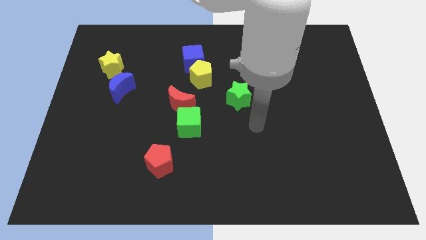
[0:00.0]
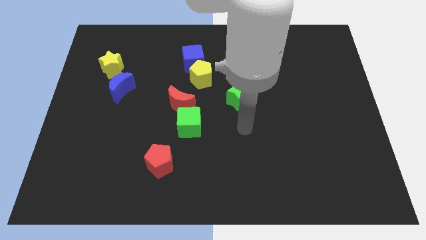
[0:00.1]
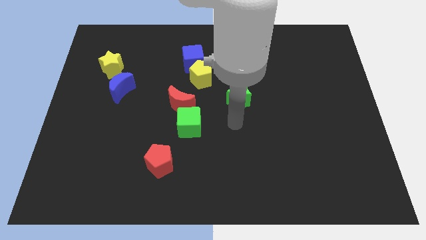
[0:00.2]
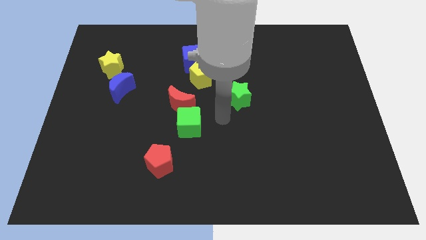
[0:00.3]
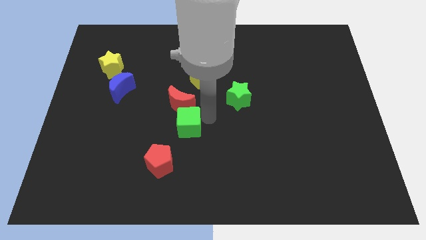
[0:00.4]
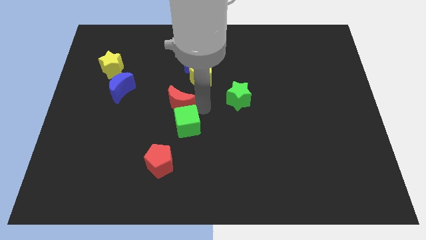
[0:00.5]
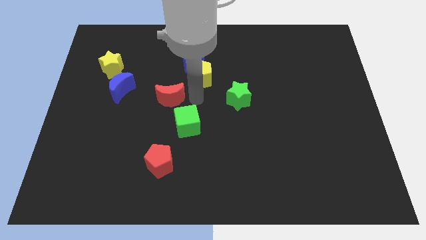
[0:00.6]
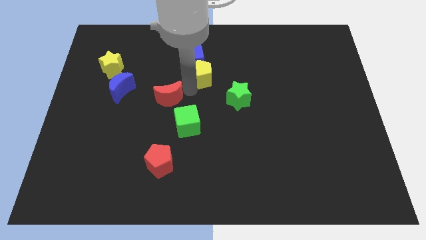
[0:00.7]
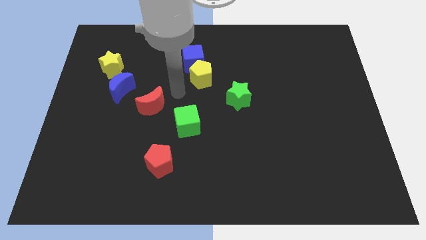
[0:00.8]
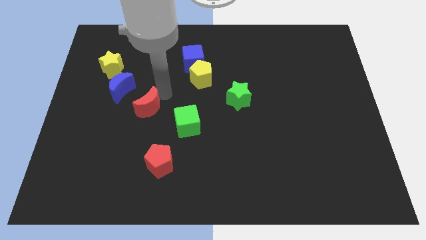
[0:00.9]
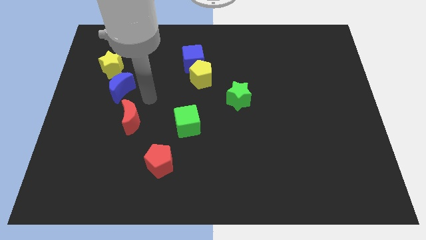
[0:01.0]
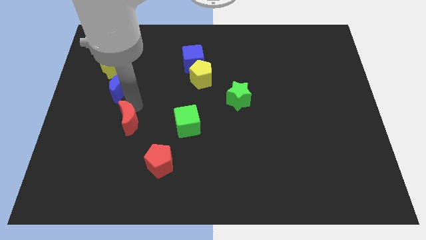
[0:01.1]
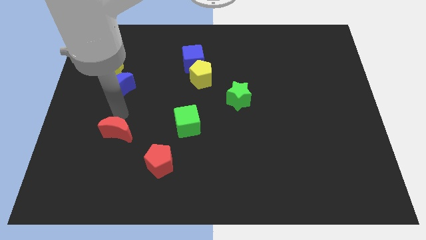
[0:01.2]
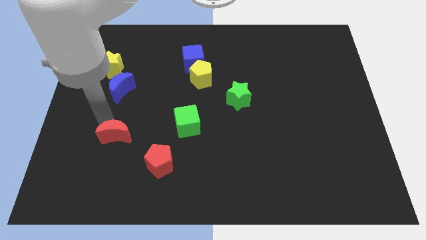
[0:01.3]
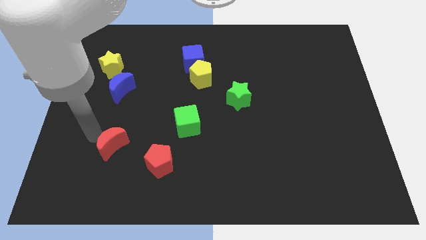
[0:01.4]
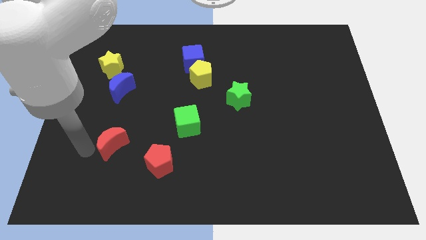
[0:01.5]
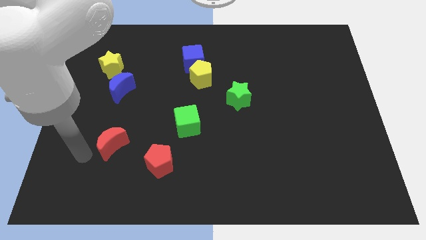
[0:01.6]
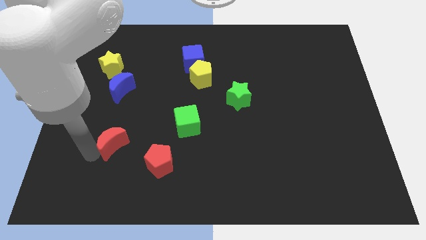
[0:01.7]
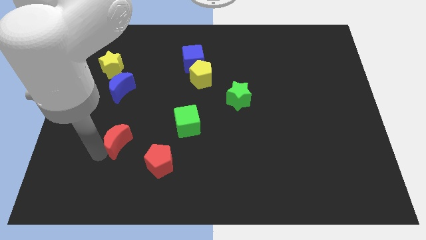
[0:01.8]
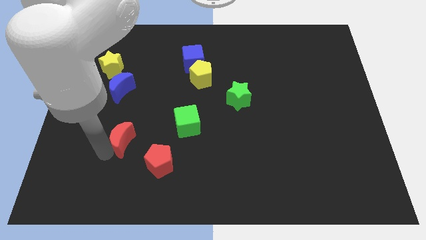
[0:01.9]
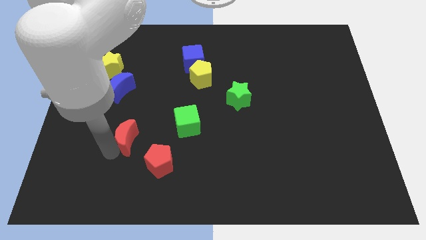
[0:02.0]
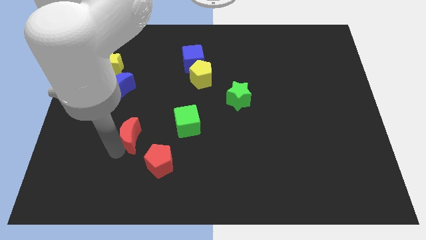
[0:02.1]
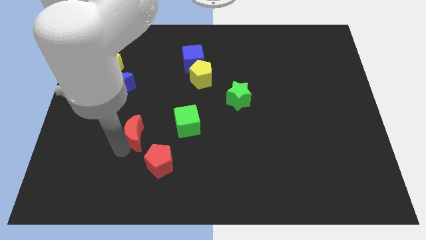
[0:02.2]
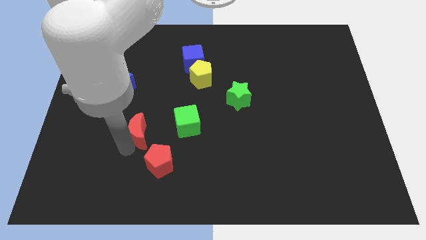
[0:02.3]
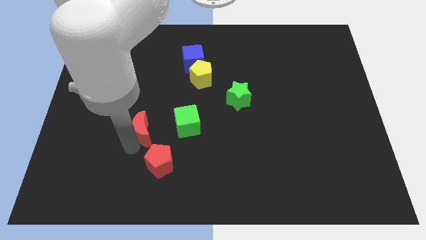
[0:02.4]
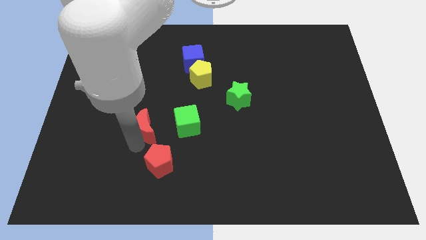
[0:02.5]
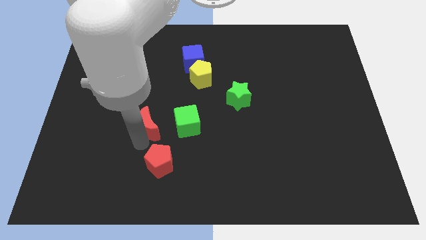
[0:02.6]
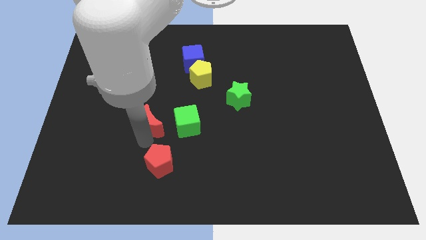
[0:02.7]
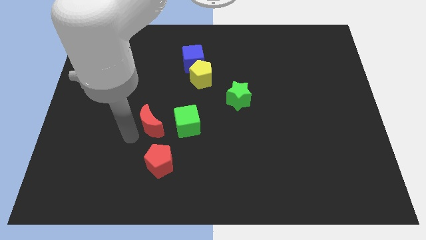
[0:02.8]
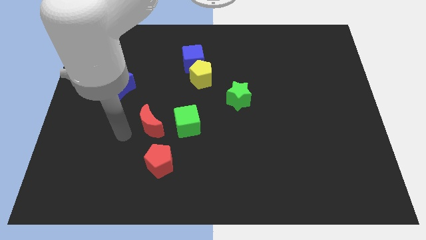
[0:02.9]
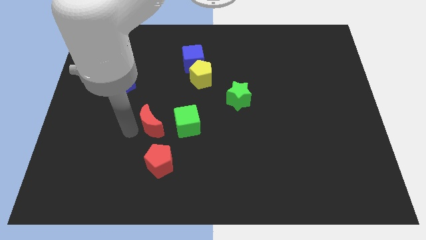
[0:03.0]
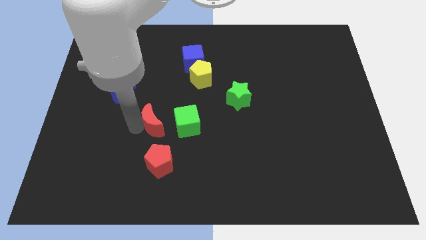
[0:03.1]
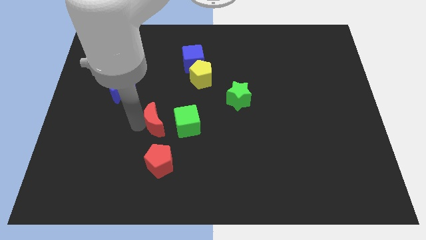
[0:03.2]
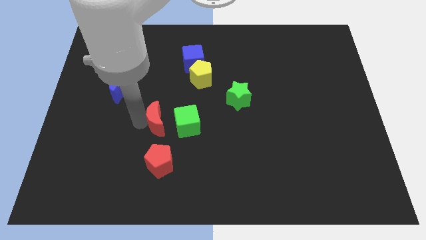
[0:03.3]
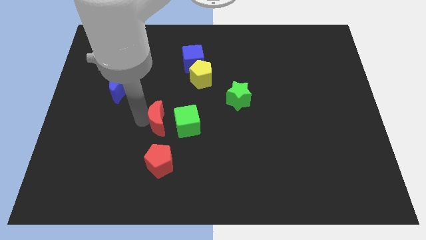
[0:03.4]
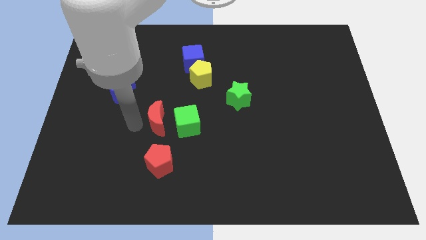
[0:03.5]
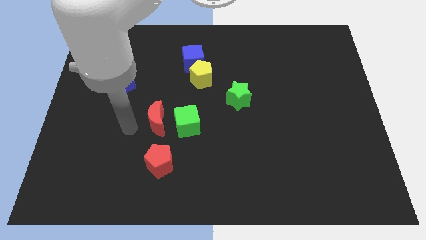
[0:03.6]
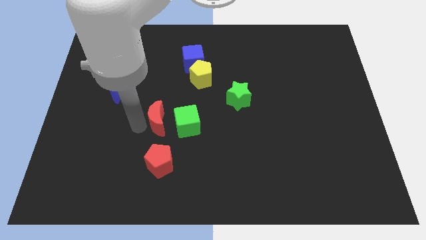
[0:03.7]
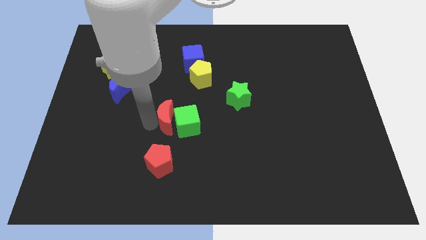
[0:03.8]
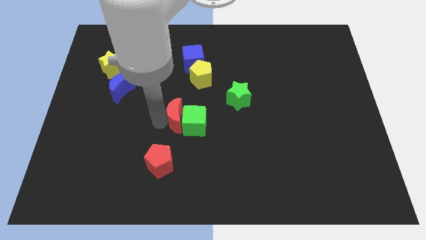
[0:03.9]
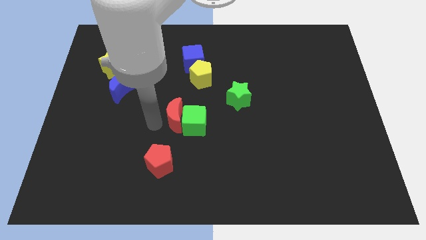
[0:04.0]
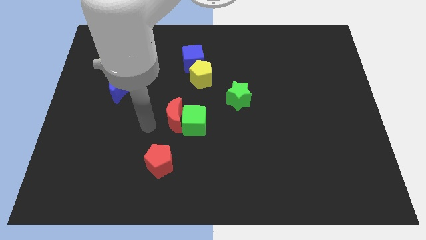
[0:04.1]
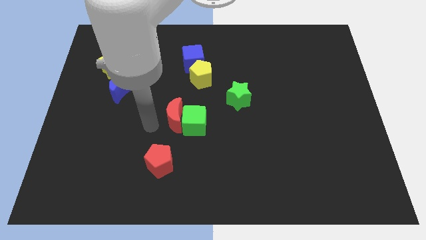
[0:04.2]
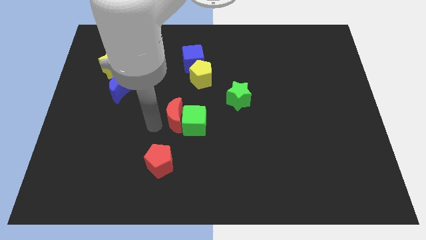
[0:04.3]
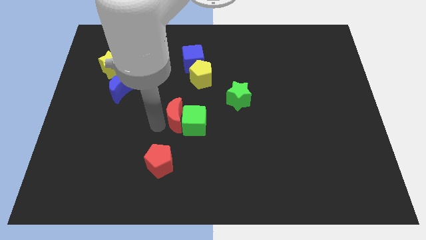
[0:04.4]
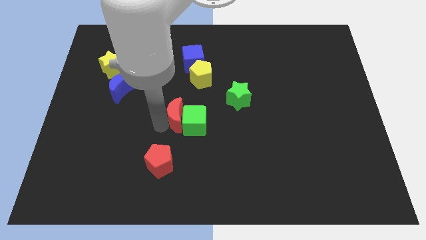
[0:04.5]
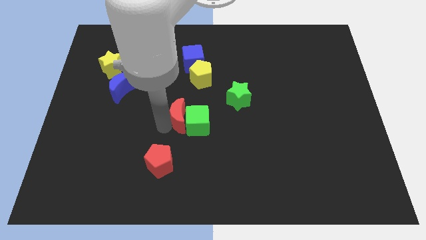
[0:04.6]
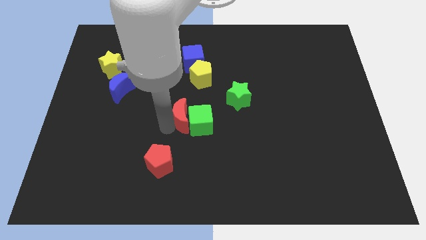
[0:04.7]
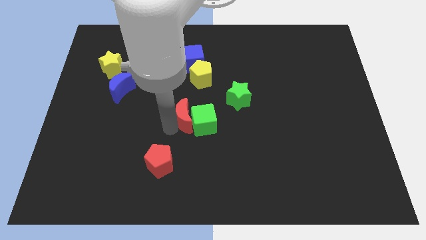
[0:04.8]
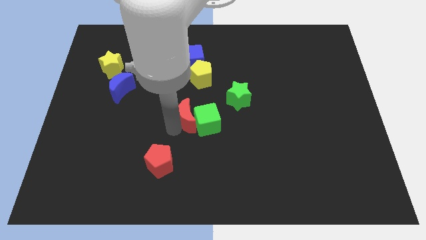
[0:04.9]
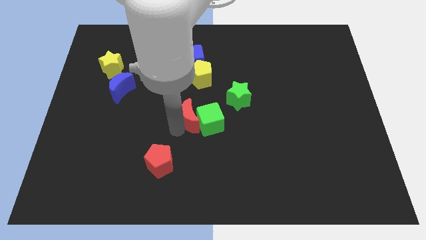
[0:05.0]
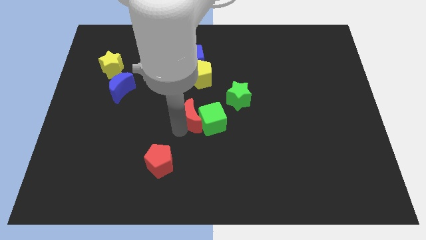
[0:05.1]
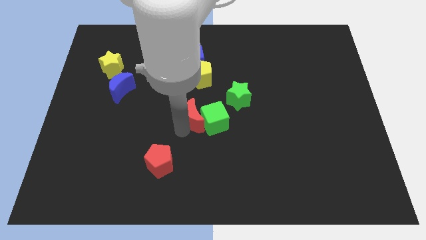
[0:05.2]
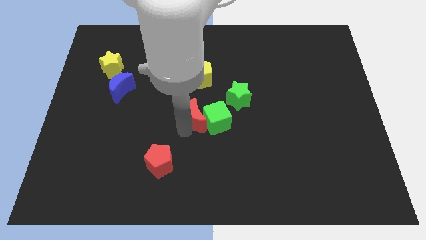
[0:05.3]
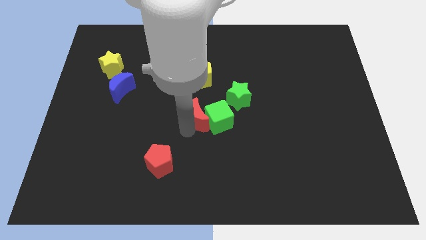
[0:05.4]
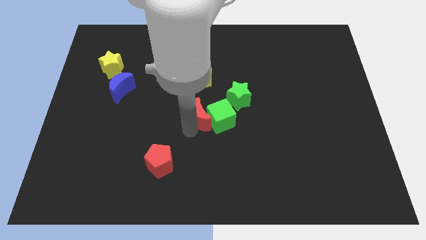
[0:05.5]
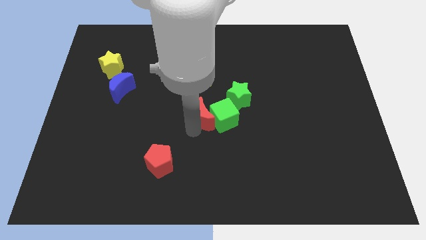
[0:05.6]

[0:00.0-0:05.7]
slightly move the red moon down and to the right diagonally

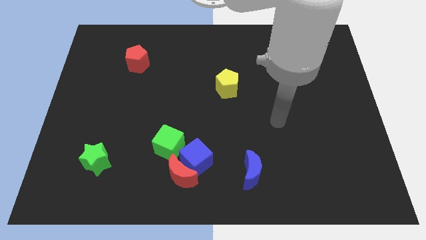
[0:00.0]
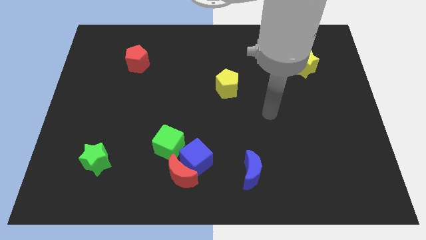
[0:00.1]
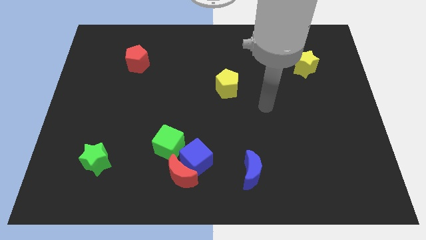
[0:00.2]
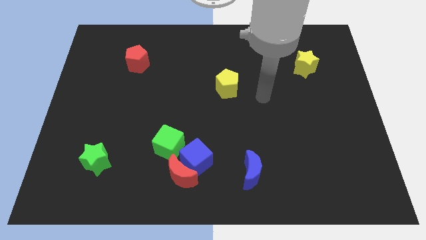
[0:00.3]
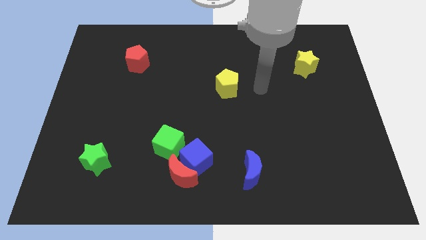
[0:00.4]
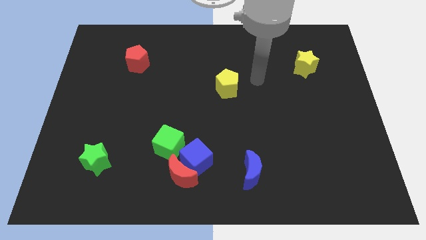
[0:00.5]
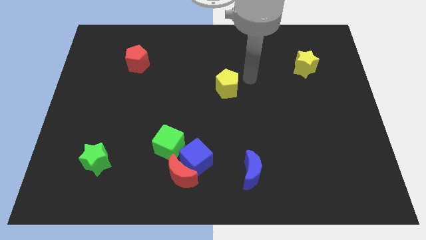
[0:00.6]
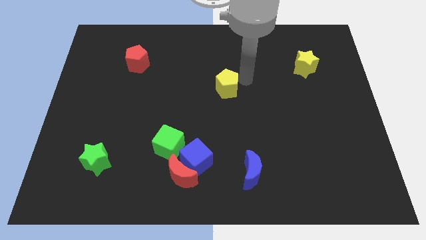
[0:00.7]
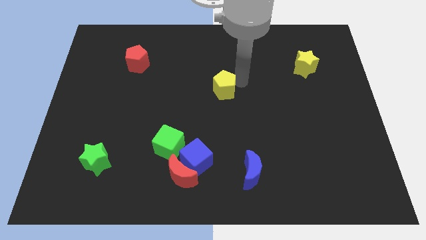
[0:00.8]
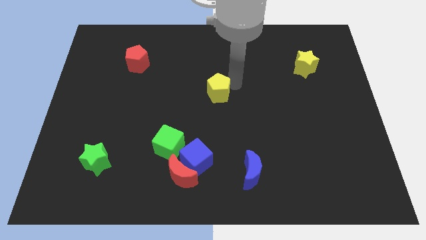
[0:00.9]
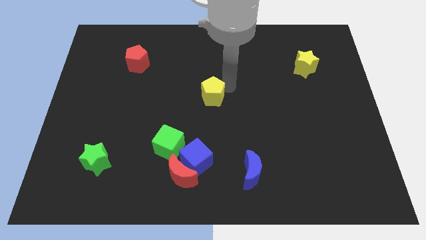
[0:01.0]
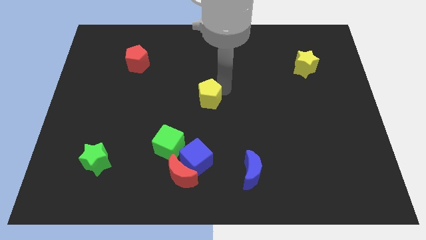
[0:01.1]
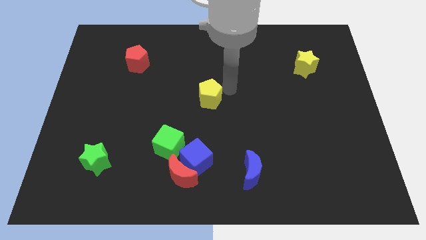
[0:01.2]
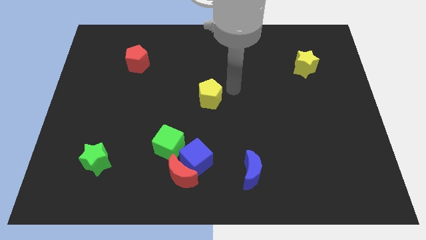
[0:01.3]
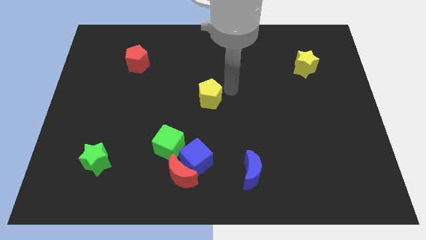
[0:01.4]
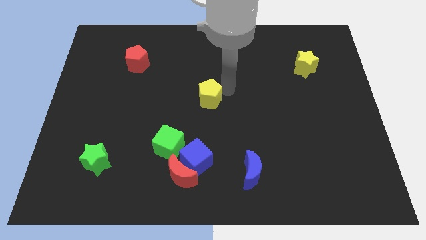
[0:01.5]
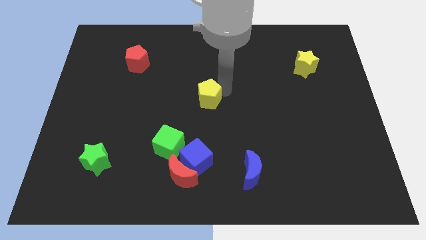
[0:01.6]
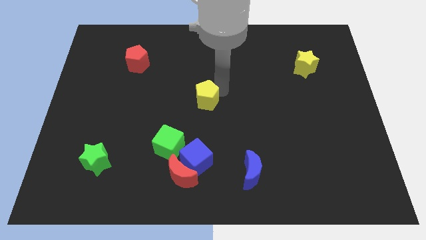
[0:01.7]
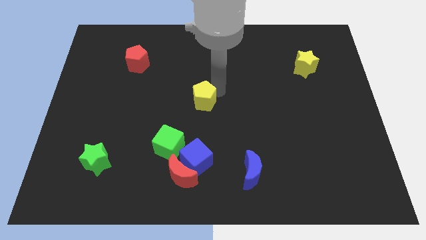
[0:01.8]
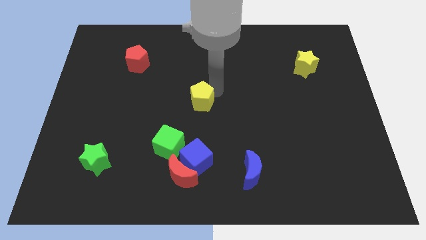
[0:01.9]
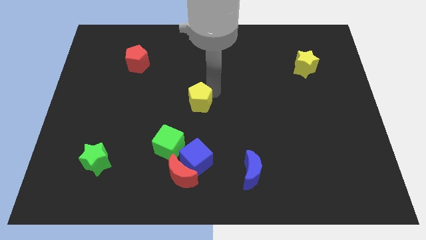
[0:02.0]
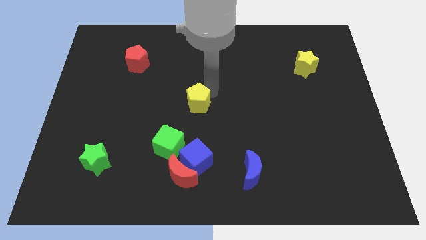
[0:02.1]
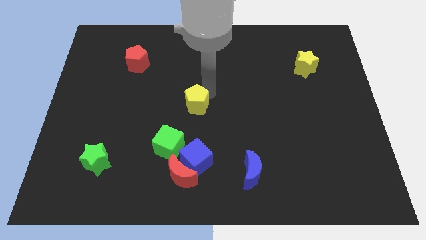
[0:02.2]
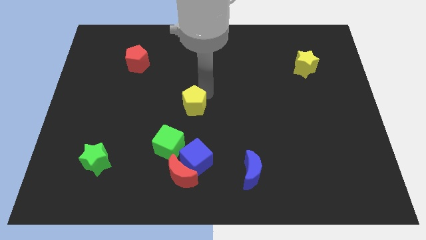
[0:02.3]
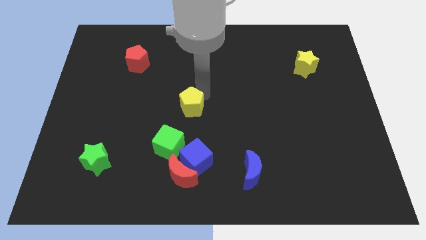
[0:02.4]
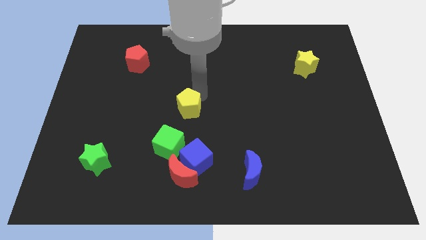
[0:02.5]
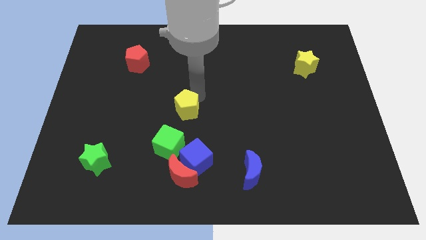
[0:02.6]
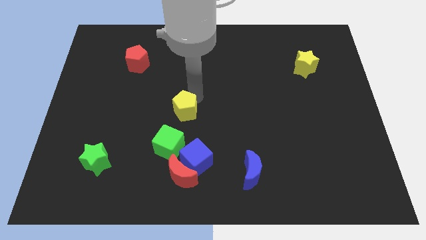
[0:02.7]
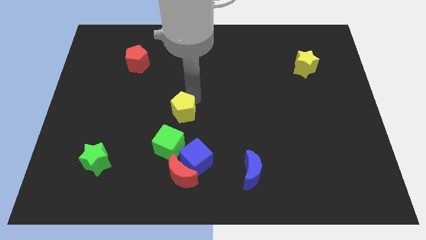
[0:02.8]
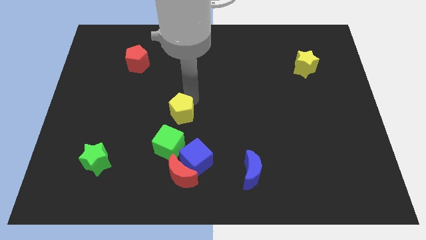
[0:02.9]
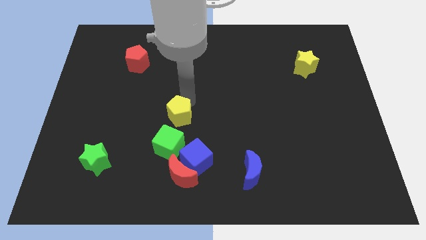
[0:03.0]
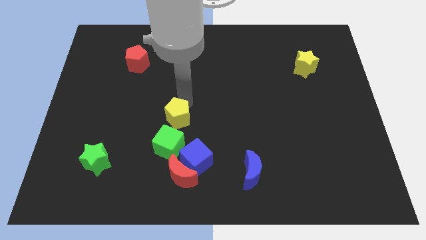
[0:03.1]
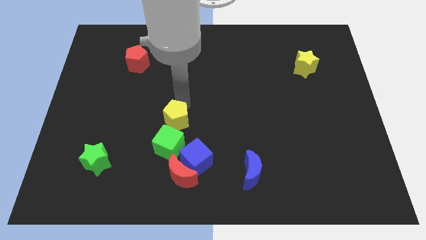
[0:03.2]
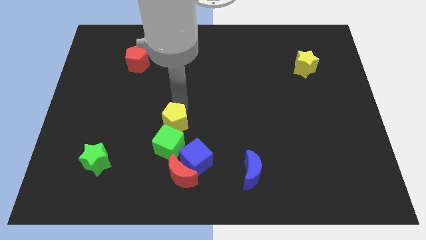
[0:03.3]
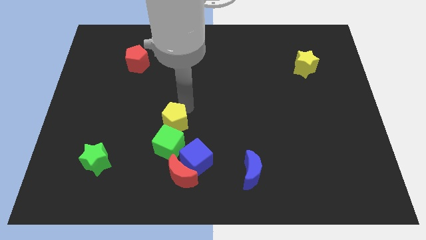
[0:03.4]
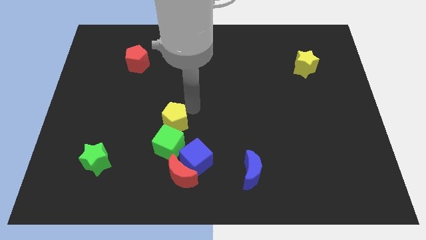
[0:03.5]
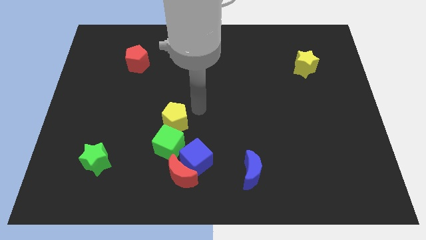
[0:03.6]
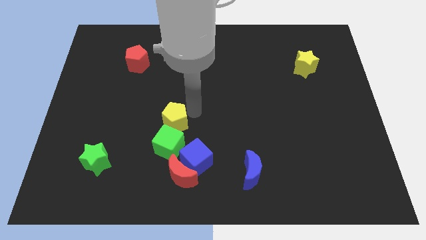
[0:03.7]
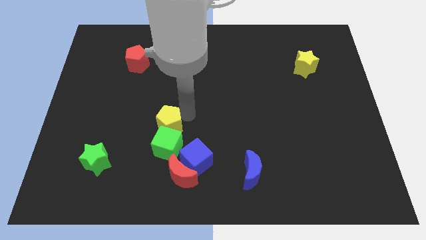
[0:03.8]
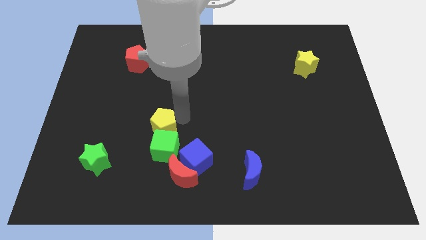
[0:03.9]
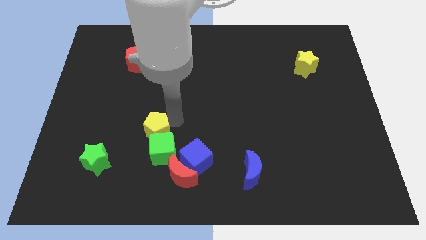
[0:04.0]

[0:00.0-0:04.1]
push the yellow pentagon downwards and then left
